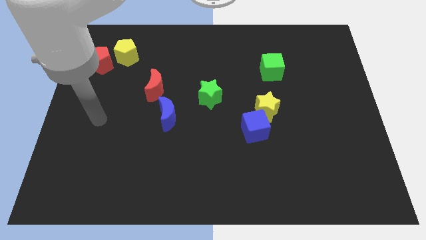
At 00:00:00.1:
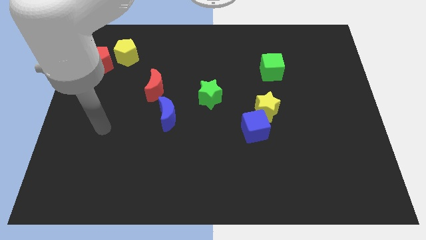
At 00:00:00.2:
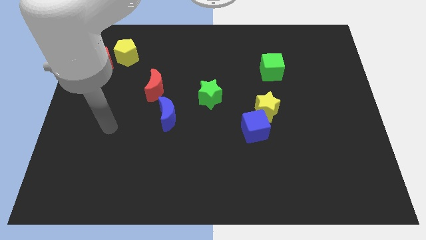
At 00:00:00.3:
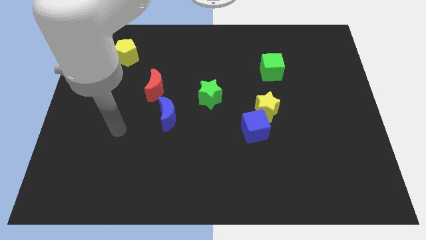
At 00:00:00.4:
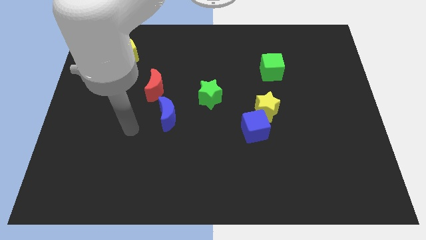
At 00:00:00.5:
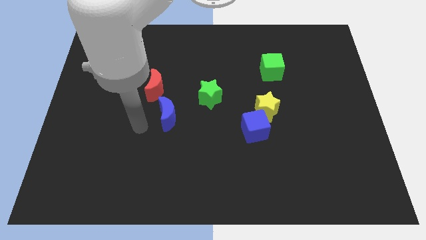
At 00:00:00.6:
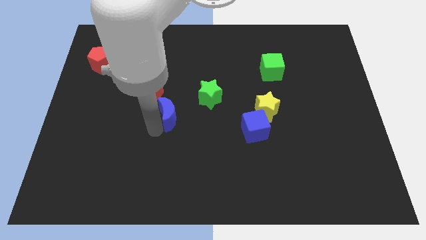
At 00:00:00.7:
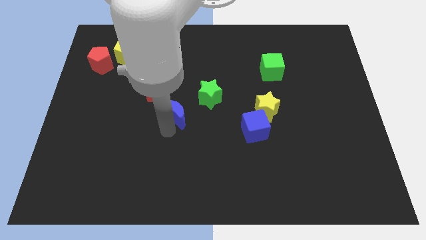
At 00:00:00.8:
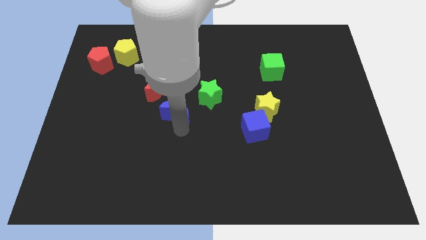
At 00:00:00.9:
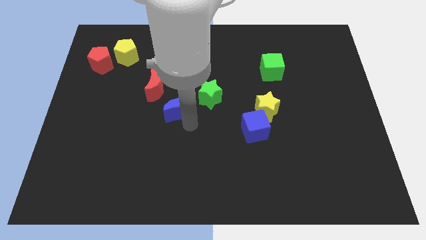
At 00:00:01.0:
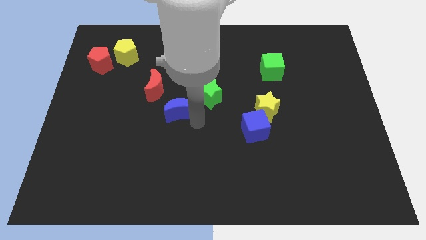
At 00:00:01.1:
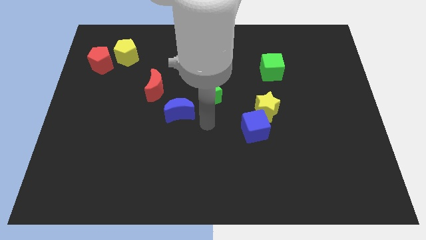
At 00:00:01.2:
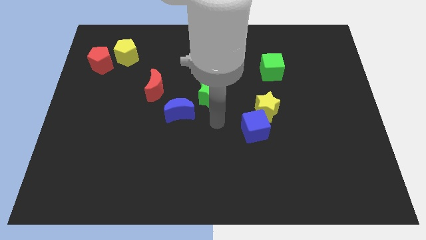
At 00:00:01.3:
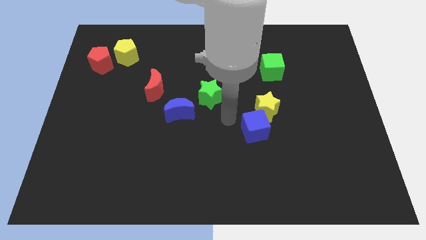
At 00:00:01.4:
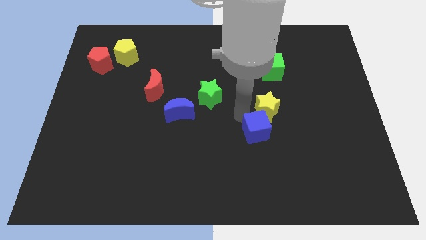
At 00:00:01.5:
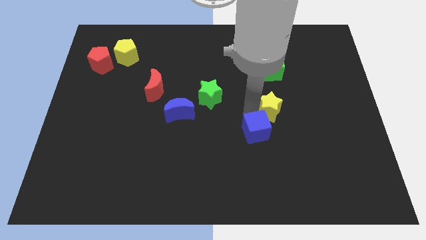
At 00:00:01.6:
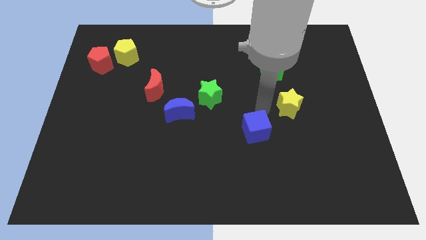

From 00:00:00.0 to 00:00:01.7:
move the blue cube away from the yellow star

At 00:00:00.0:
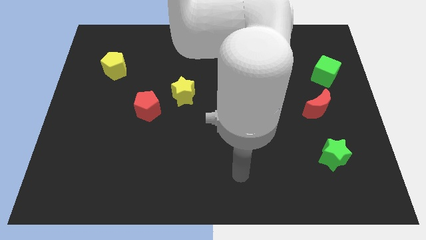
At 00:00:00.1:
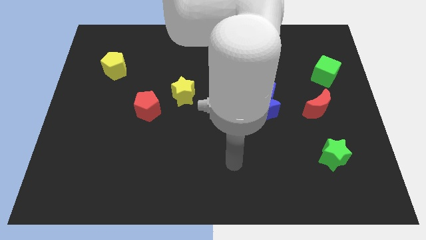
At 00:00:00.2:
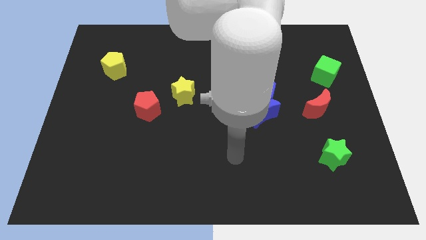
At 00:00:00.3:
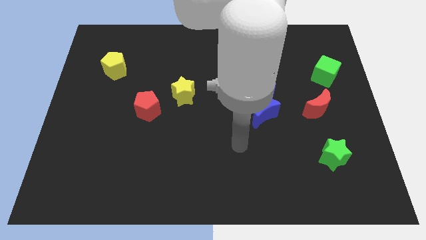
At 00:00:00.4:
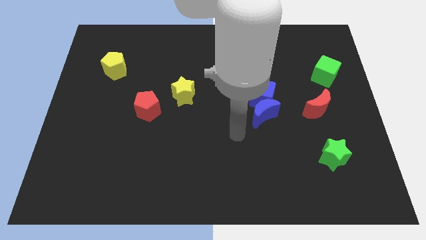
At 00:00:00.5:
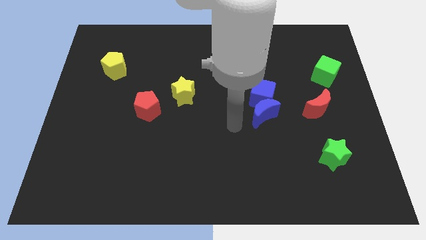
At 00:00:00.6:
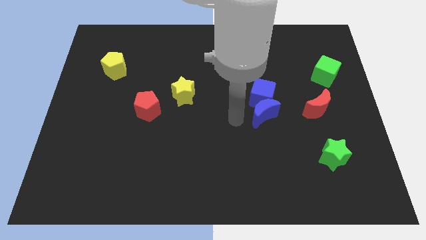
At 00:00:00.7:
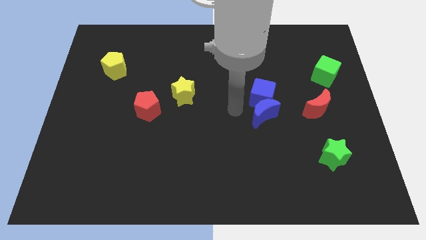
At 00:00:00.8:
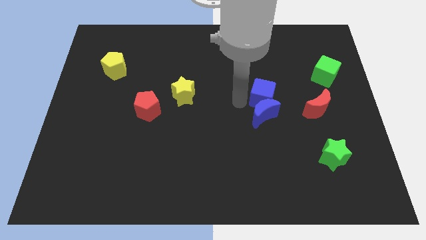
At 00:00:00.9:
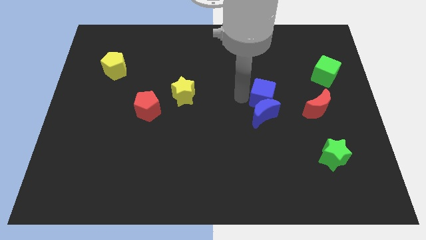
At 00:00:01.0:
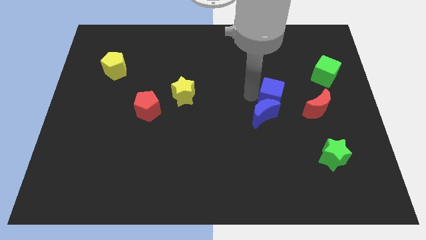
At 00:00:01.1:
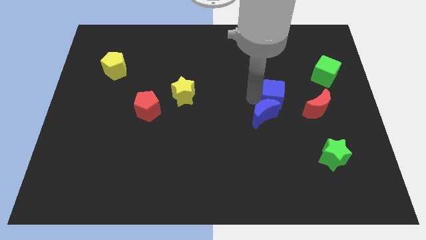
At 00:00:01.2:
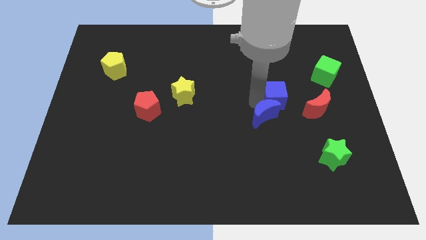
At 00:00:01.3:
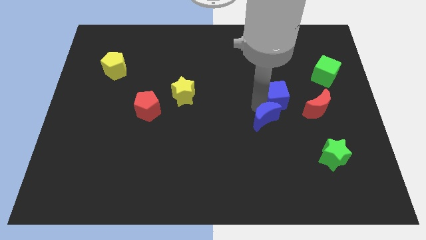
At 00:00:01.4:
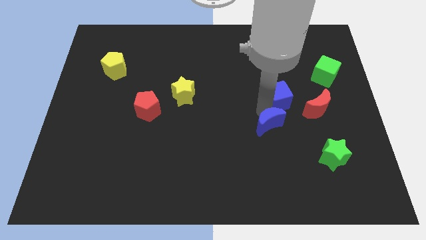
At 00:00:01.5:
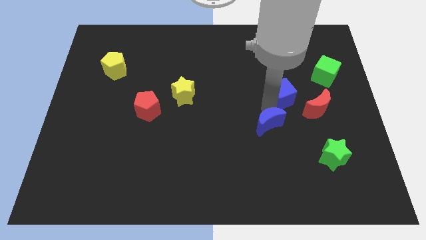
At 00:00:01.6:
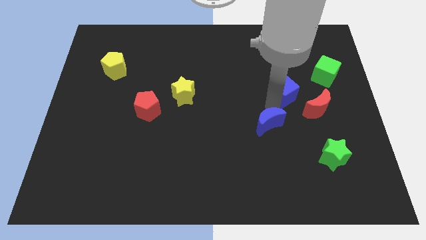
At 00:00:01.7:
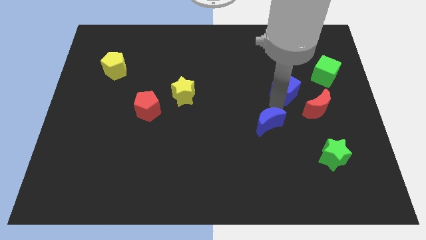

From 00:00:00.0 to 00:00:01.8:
move the blue moon away from the blue cube

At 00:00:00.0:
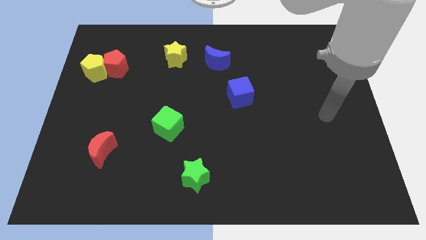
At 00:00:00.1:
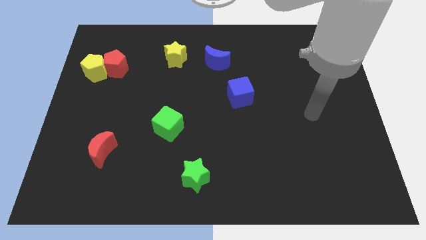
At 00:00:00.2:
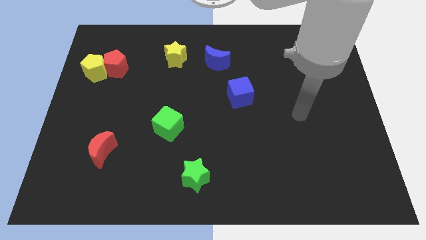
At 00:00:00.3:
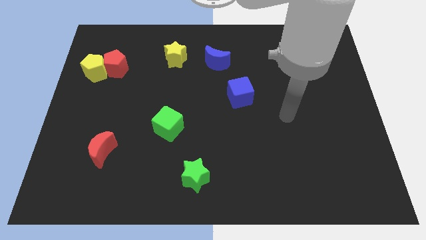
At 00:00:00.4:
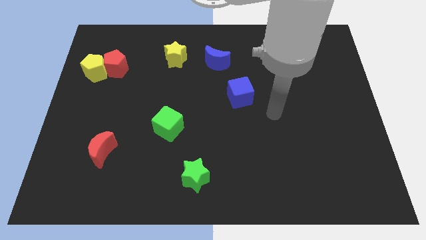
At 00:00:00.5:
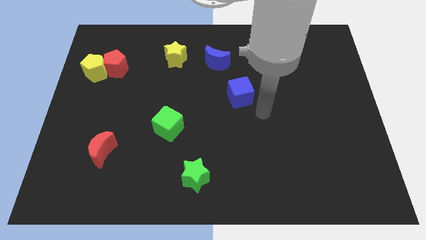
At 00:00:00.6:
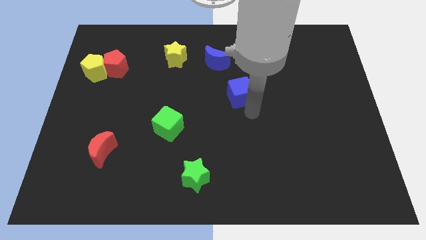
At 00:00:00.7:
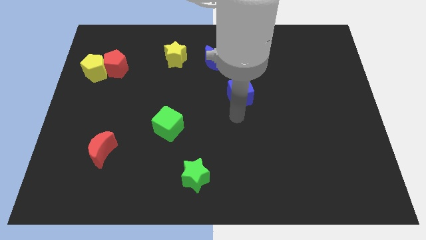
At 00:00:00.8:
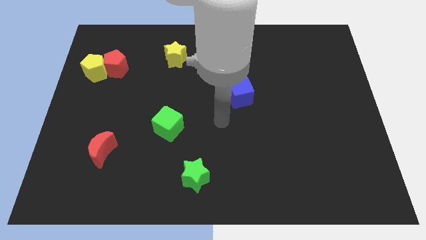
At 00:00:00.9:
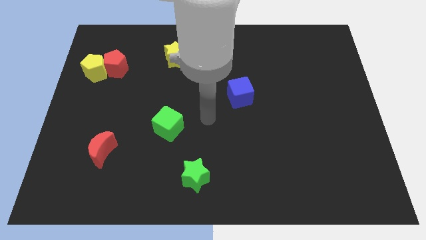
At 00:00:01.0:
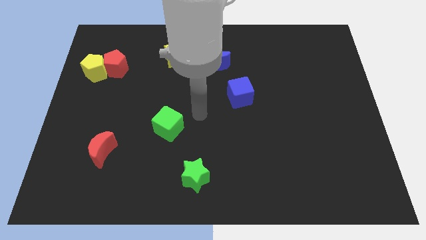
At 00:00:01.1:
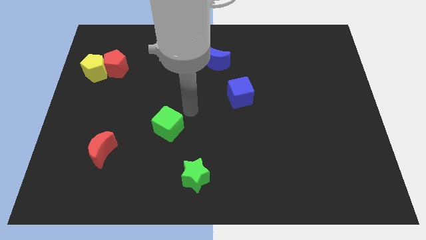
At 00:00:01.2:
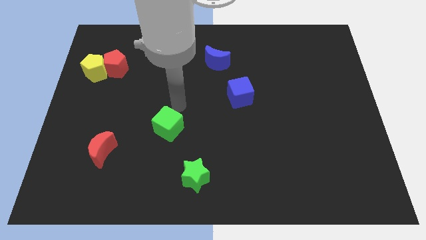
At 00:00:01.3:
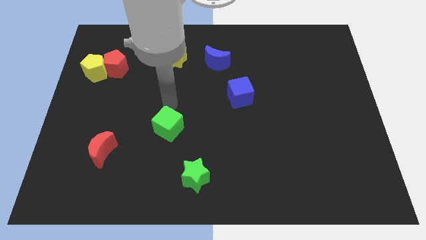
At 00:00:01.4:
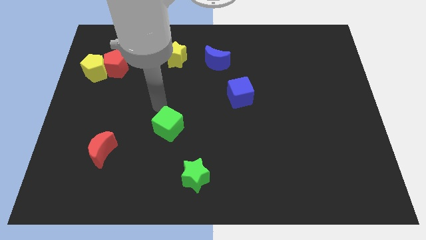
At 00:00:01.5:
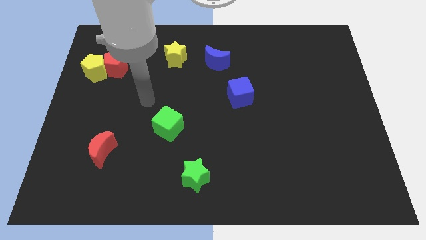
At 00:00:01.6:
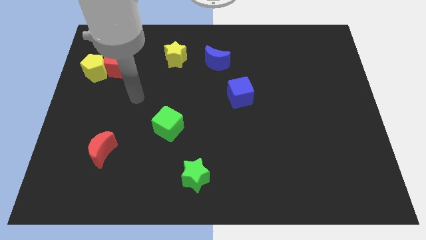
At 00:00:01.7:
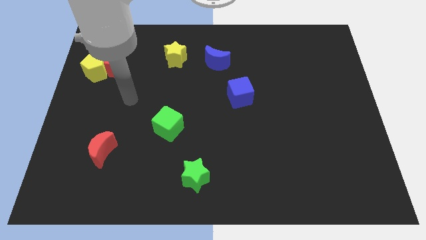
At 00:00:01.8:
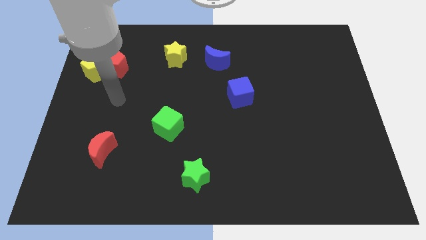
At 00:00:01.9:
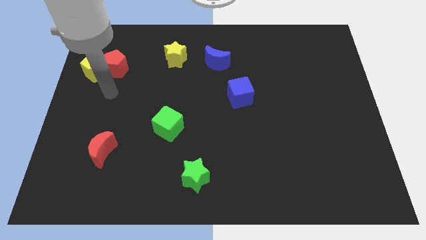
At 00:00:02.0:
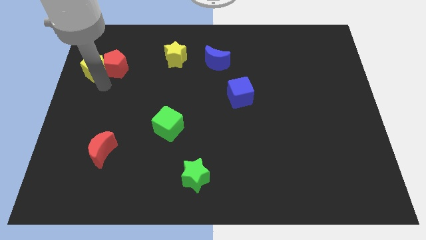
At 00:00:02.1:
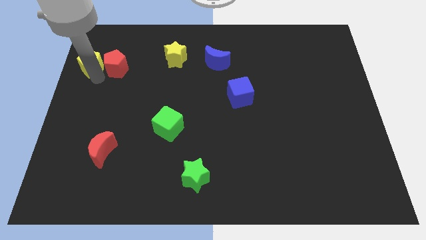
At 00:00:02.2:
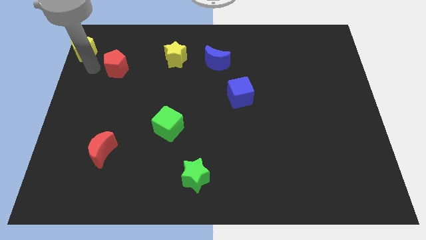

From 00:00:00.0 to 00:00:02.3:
pull the red pentagon apart from the yellow pentagon

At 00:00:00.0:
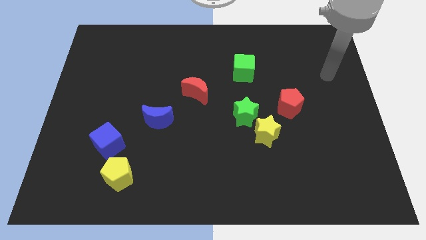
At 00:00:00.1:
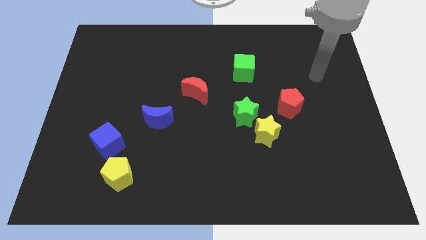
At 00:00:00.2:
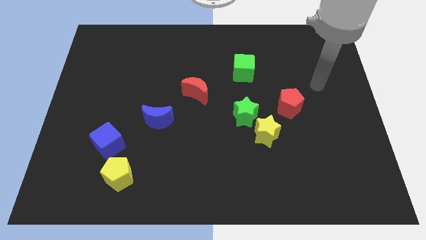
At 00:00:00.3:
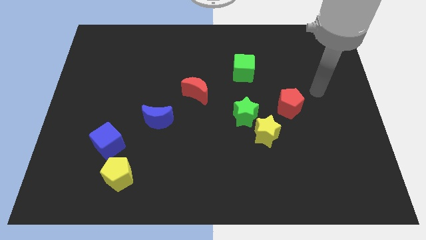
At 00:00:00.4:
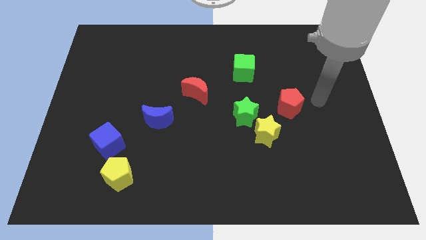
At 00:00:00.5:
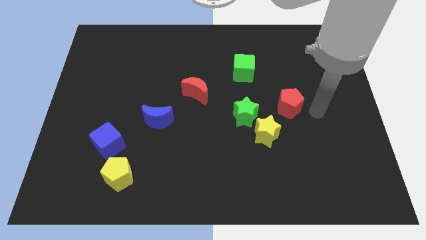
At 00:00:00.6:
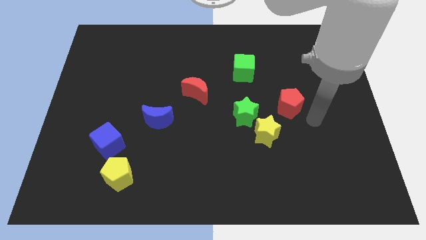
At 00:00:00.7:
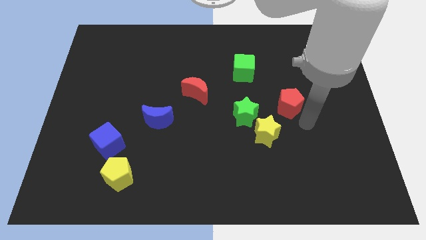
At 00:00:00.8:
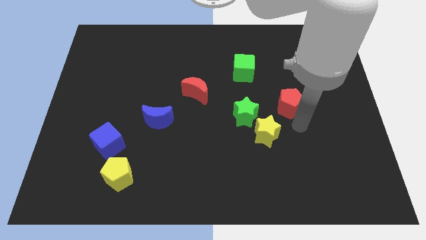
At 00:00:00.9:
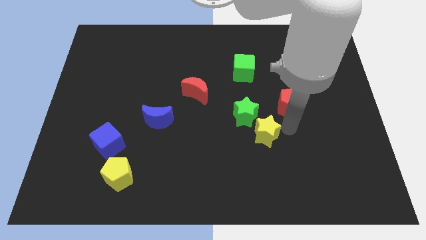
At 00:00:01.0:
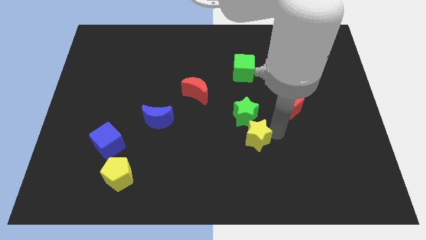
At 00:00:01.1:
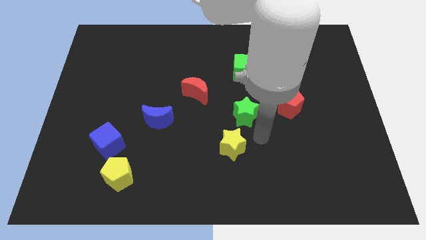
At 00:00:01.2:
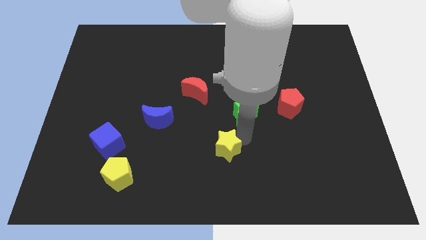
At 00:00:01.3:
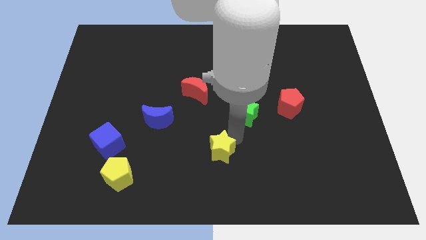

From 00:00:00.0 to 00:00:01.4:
pull the green star apart from the yellow star

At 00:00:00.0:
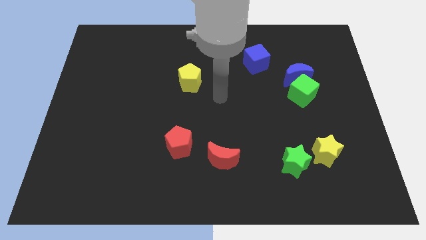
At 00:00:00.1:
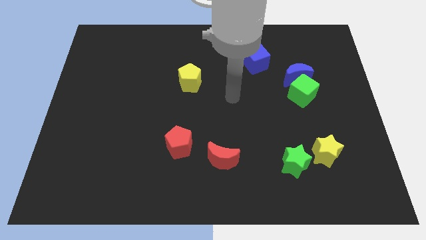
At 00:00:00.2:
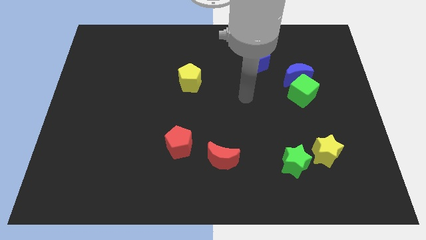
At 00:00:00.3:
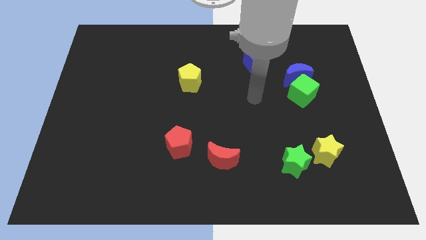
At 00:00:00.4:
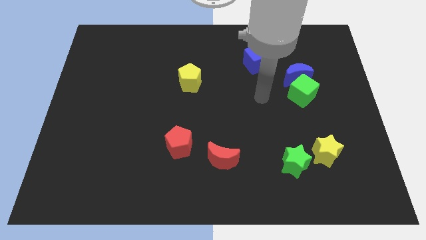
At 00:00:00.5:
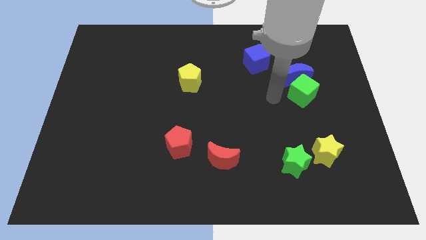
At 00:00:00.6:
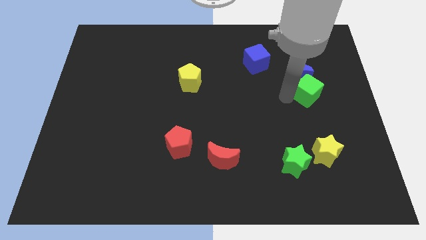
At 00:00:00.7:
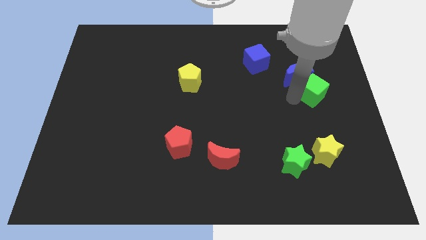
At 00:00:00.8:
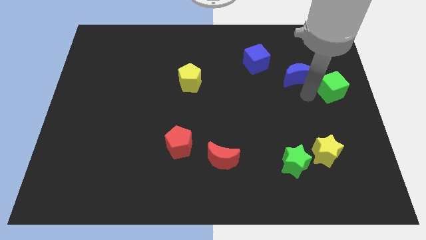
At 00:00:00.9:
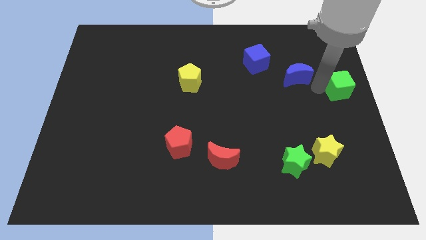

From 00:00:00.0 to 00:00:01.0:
move the blue moon away from the green cube

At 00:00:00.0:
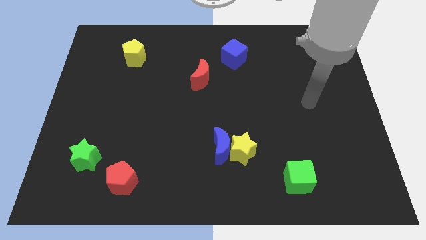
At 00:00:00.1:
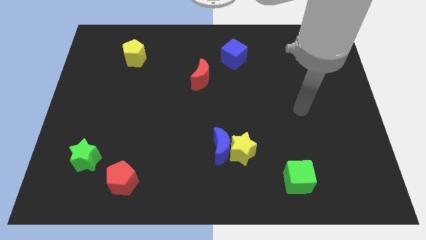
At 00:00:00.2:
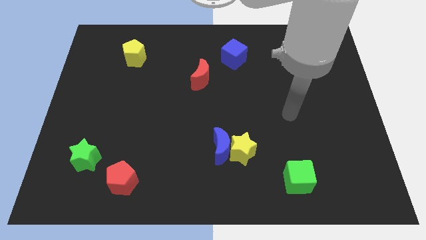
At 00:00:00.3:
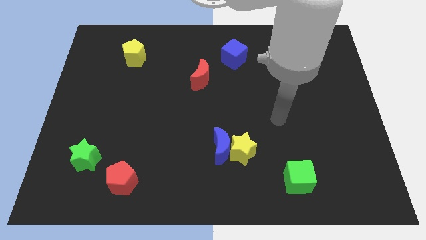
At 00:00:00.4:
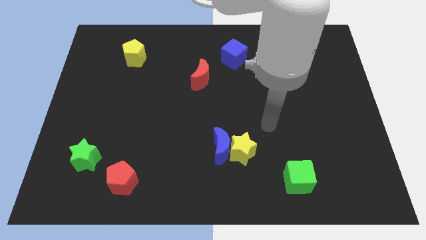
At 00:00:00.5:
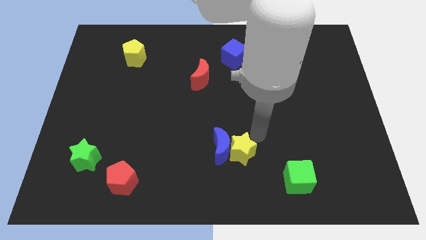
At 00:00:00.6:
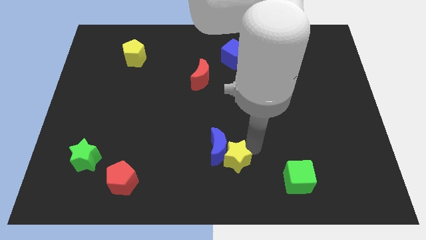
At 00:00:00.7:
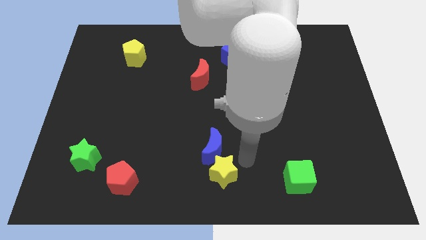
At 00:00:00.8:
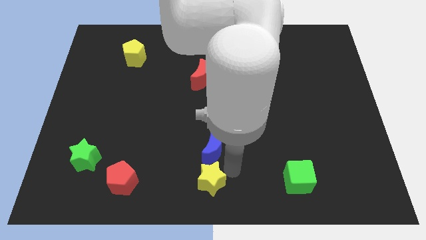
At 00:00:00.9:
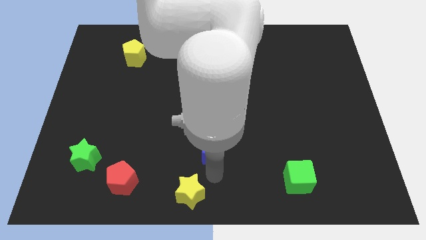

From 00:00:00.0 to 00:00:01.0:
move the blue moon away from the yellow star
